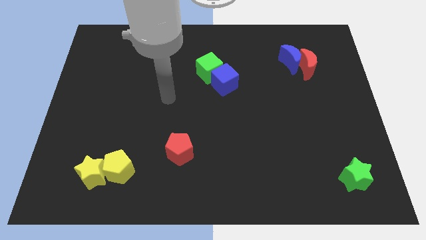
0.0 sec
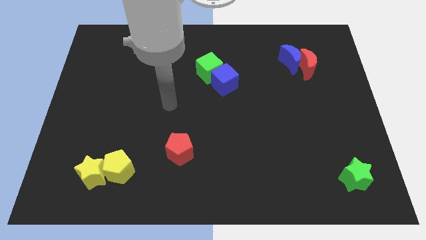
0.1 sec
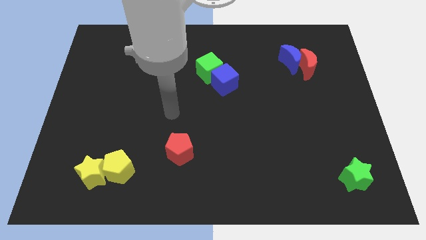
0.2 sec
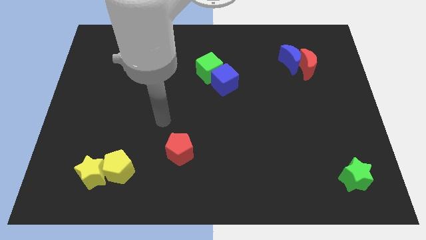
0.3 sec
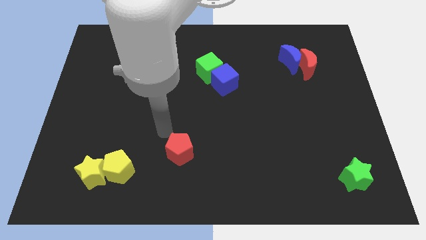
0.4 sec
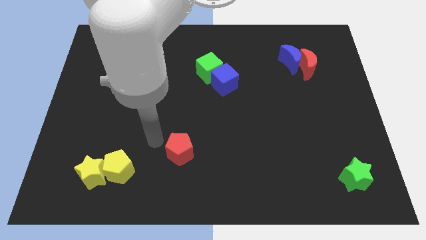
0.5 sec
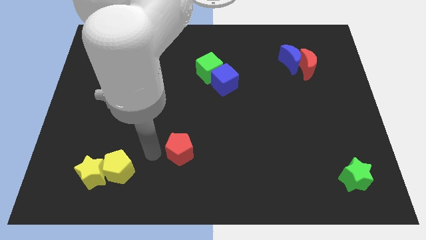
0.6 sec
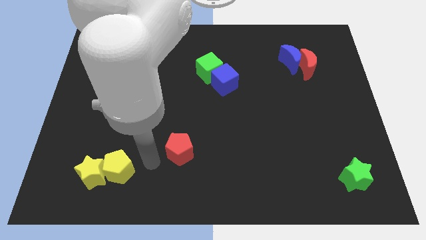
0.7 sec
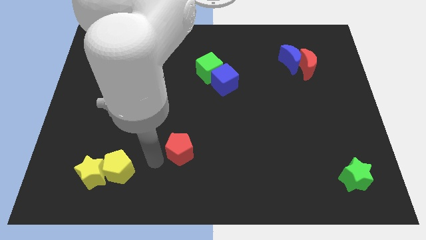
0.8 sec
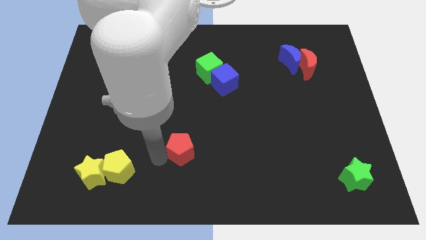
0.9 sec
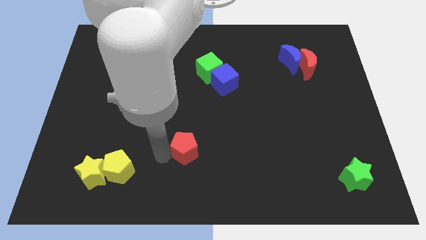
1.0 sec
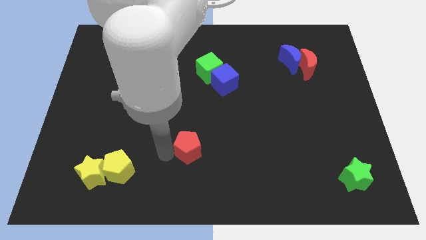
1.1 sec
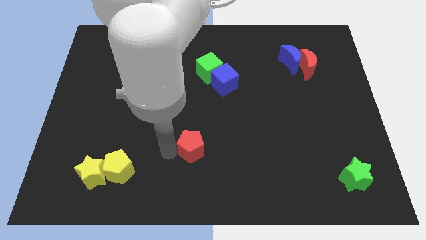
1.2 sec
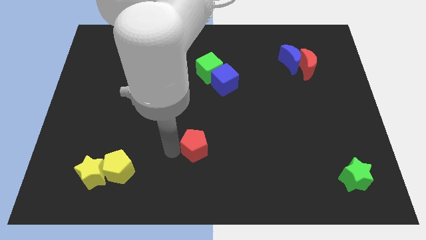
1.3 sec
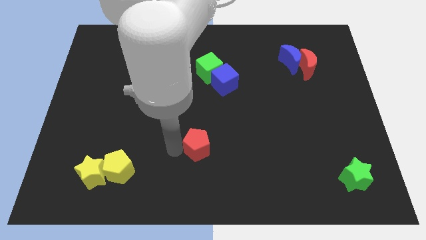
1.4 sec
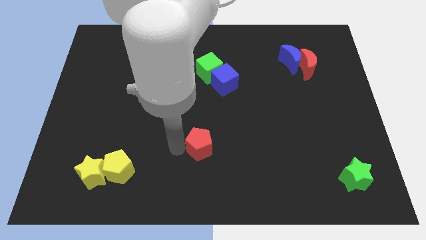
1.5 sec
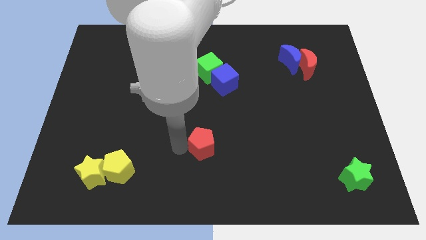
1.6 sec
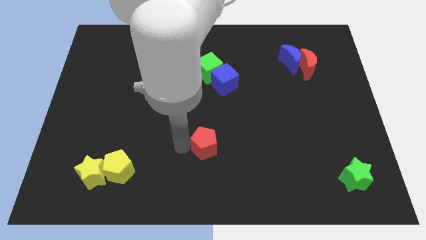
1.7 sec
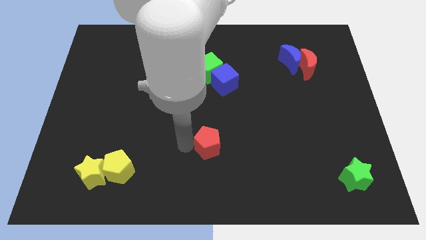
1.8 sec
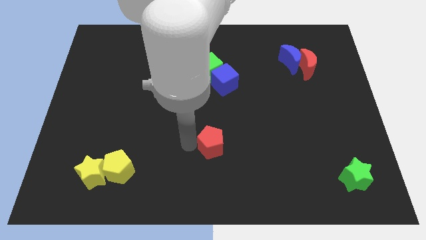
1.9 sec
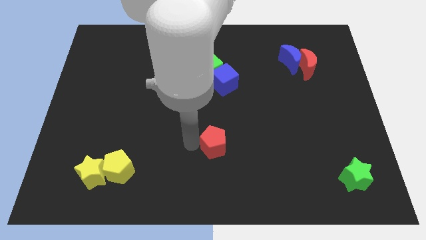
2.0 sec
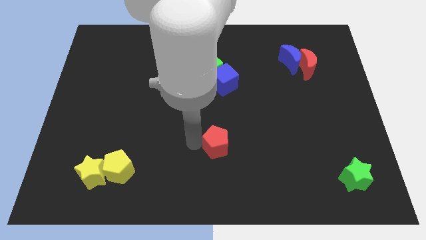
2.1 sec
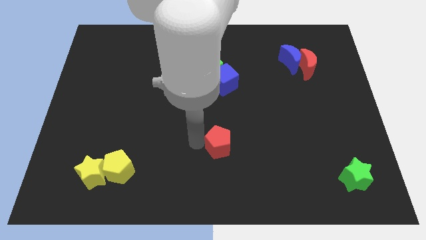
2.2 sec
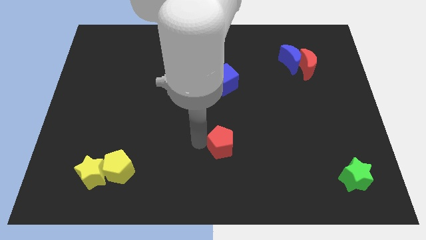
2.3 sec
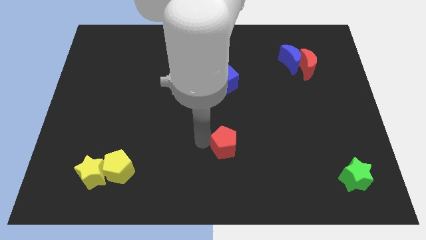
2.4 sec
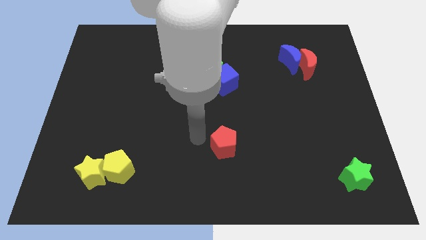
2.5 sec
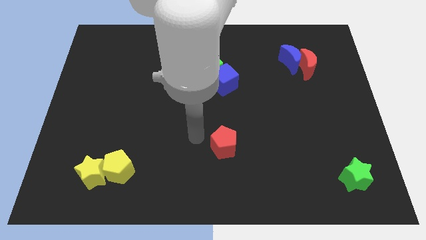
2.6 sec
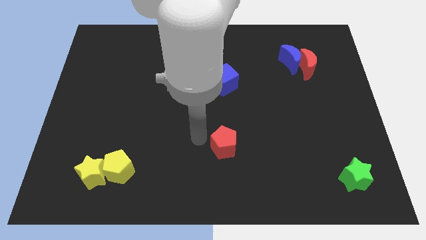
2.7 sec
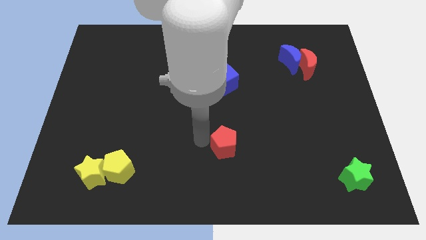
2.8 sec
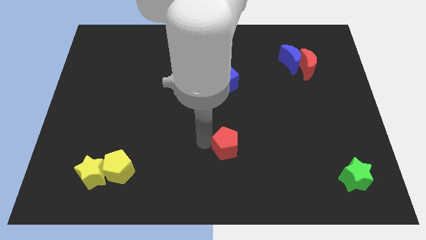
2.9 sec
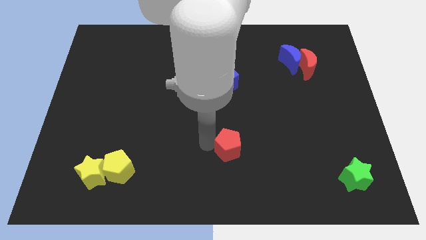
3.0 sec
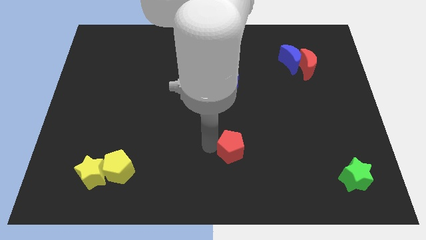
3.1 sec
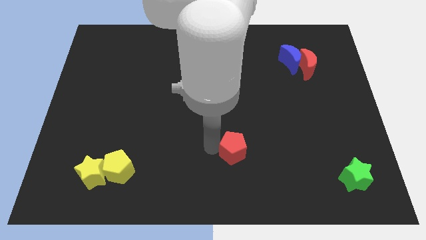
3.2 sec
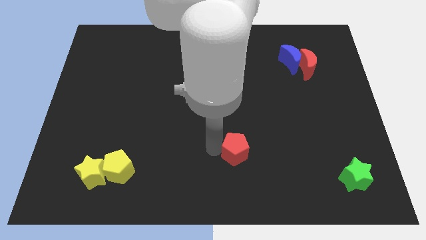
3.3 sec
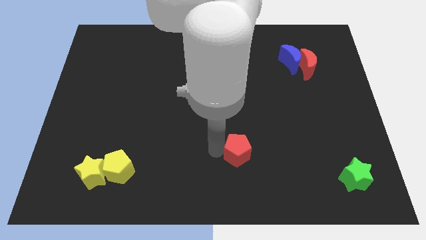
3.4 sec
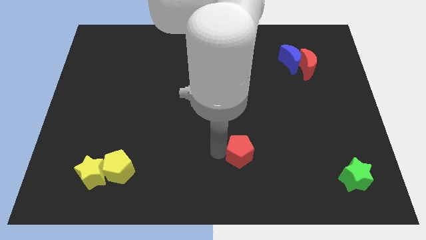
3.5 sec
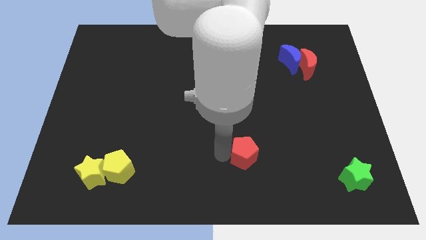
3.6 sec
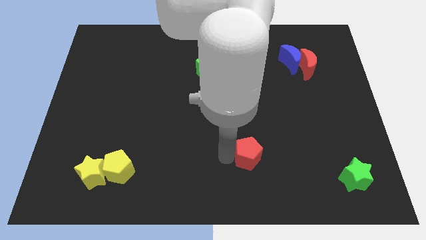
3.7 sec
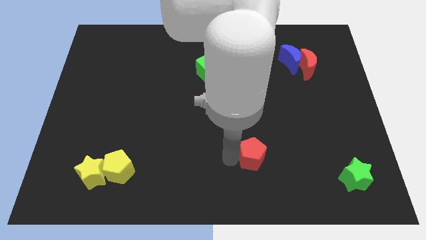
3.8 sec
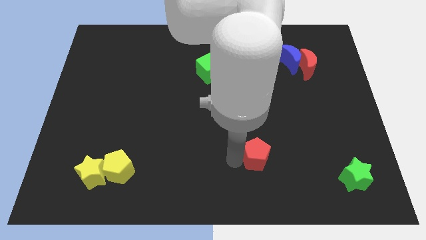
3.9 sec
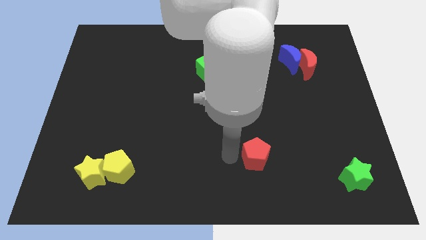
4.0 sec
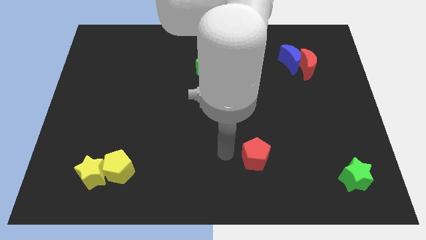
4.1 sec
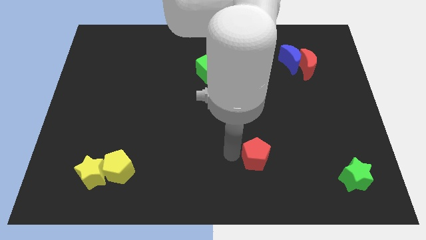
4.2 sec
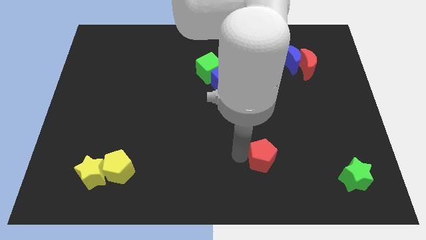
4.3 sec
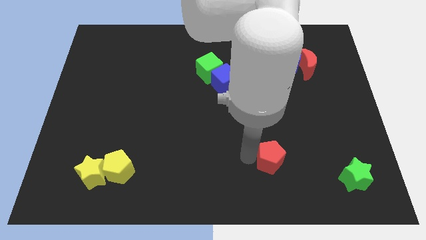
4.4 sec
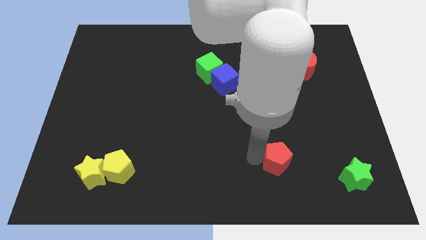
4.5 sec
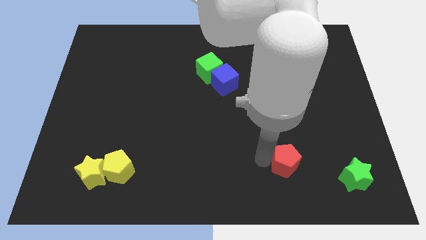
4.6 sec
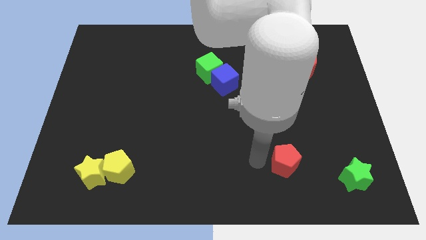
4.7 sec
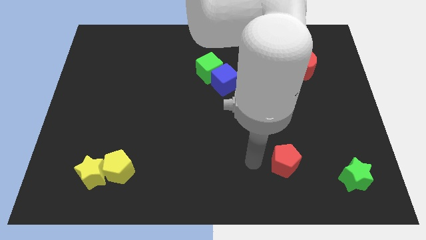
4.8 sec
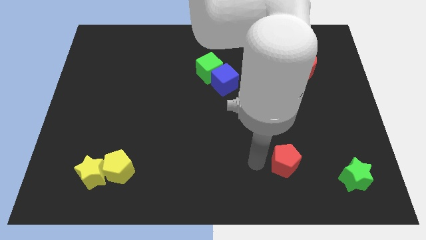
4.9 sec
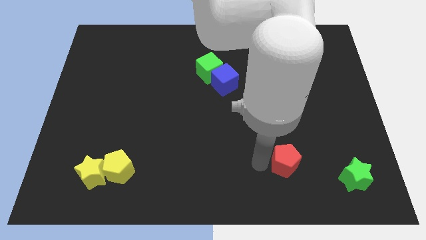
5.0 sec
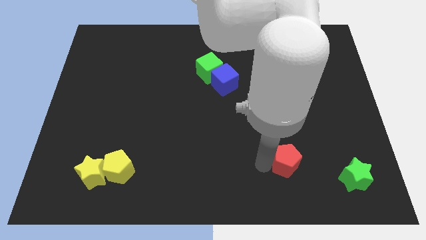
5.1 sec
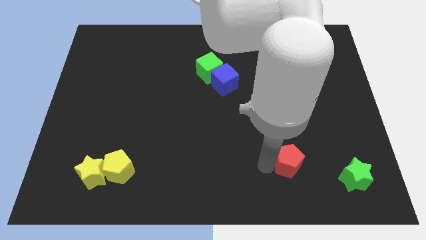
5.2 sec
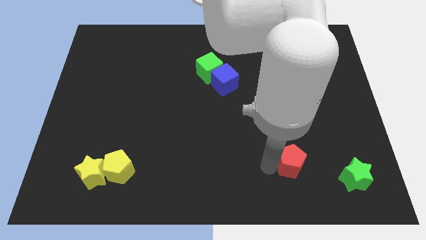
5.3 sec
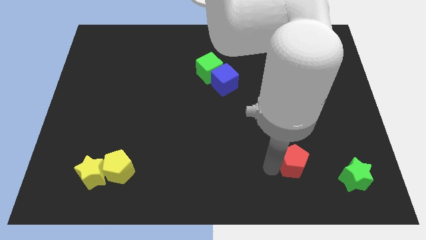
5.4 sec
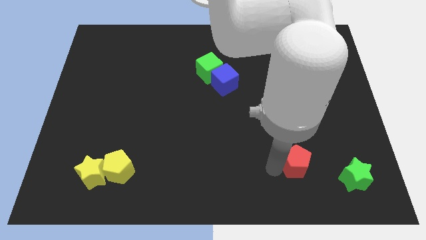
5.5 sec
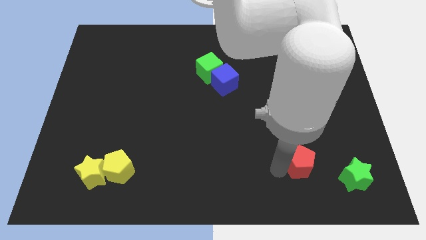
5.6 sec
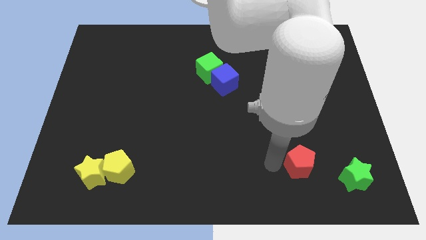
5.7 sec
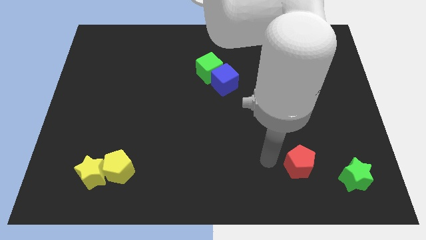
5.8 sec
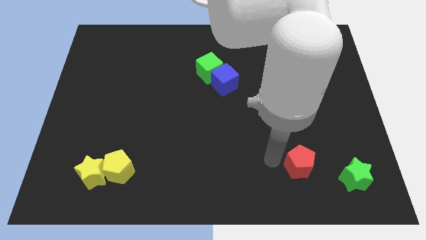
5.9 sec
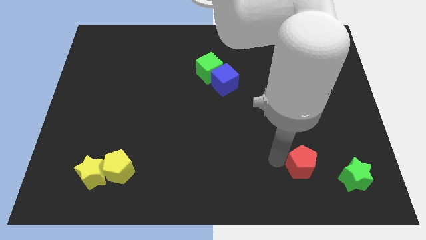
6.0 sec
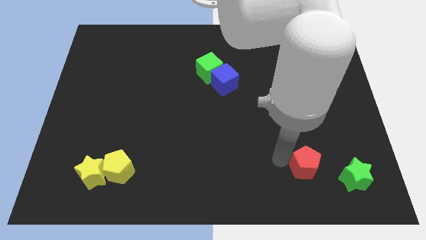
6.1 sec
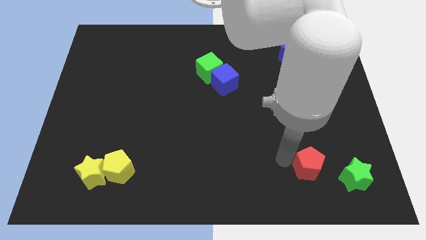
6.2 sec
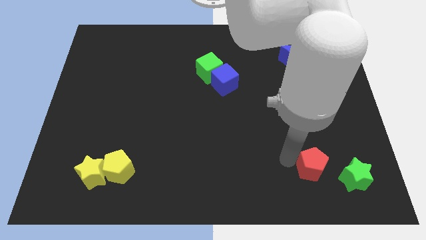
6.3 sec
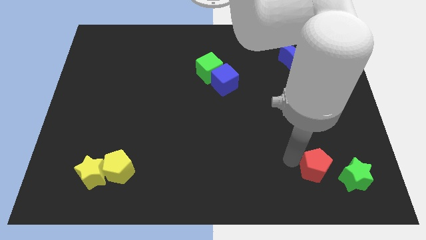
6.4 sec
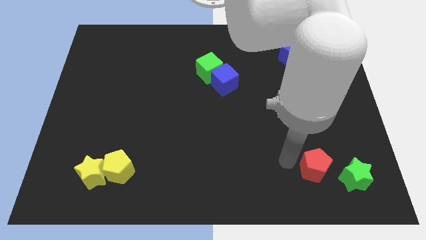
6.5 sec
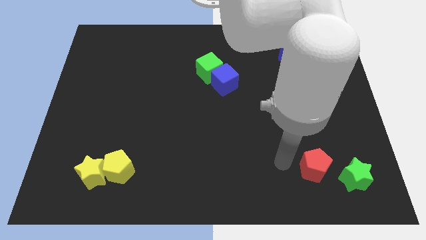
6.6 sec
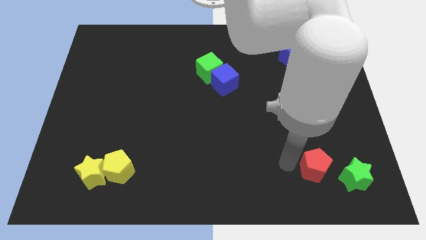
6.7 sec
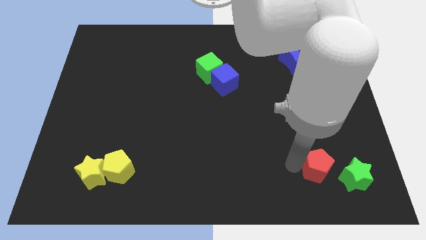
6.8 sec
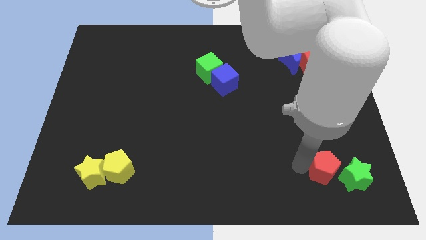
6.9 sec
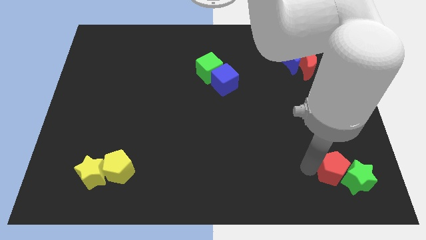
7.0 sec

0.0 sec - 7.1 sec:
slide the red pentagon close to the green star

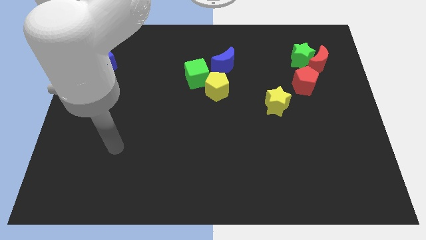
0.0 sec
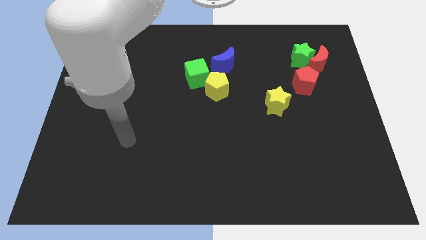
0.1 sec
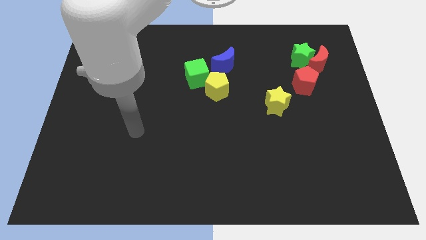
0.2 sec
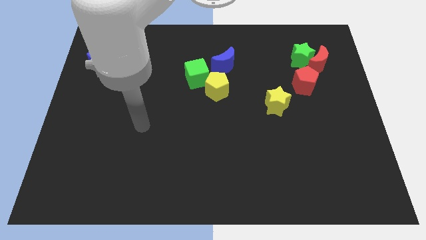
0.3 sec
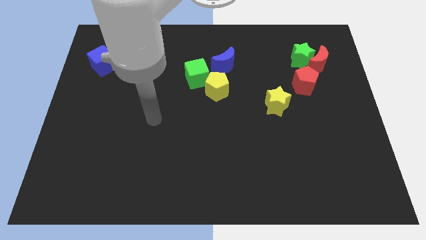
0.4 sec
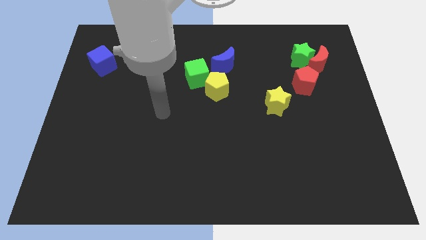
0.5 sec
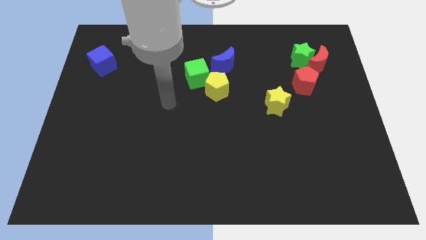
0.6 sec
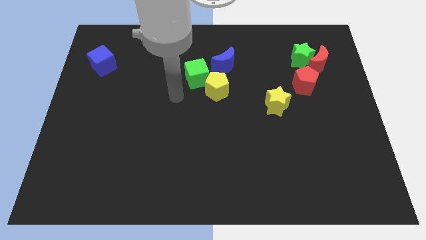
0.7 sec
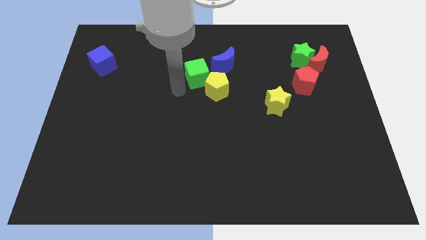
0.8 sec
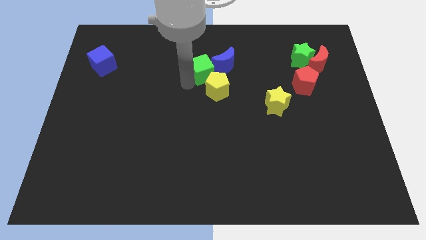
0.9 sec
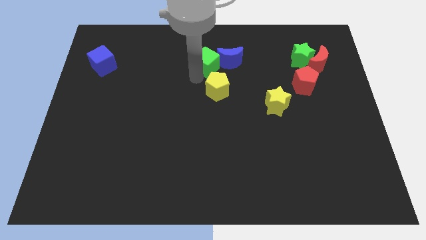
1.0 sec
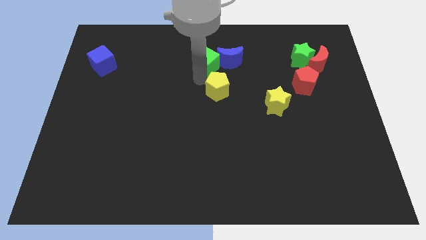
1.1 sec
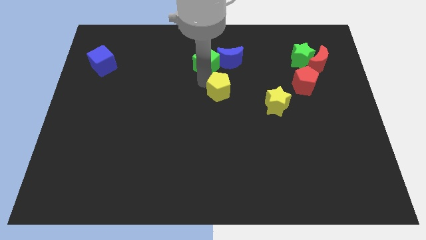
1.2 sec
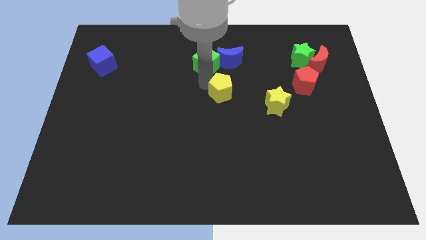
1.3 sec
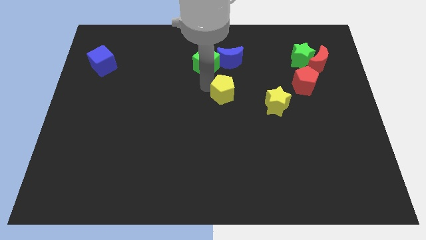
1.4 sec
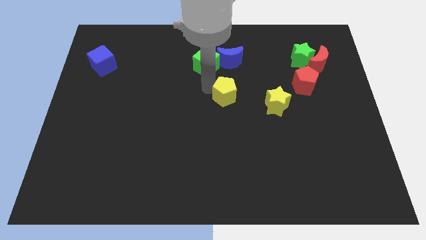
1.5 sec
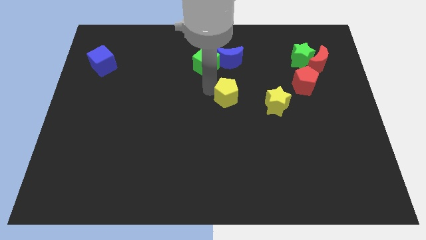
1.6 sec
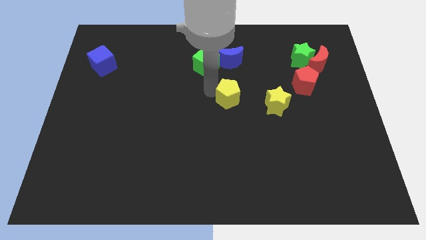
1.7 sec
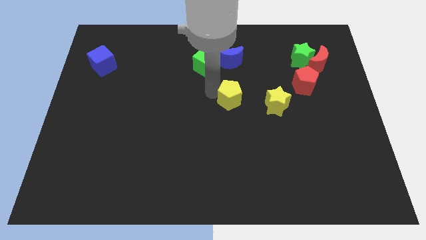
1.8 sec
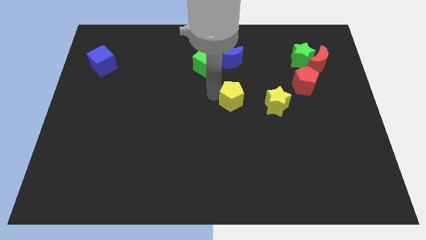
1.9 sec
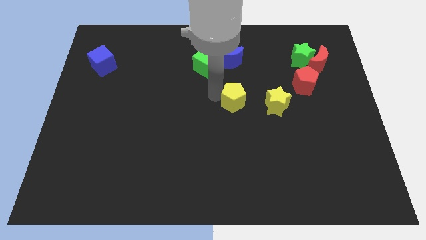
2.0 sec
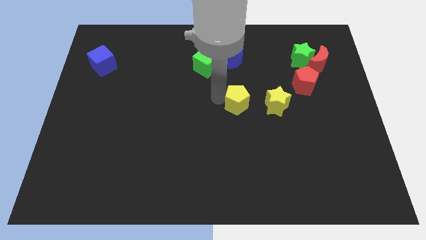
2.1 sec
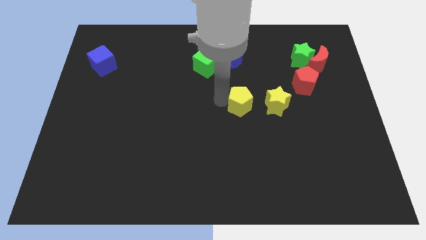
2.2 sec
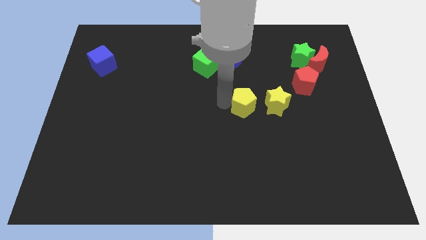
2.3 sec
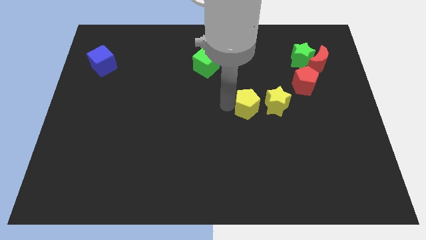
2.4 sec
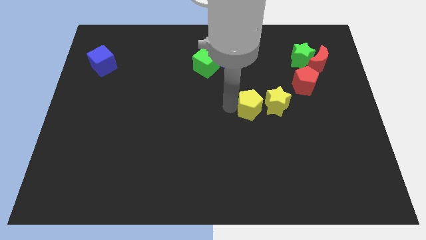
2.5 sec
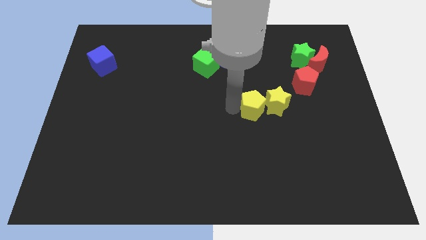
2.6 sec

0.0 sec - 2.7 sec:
push the yellow pentagon next to the yellow star
